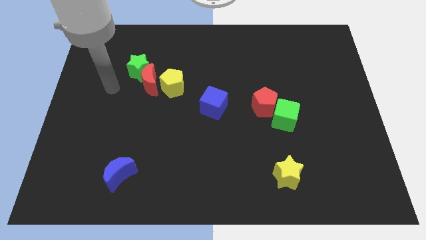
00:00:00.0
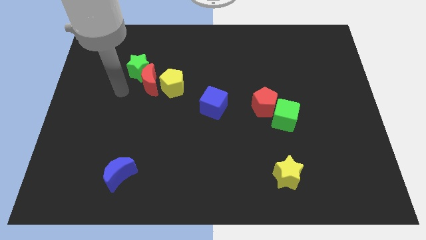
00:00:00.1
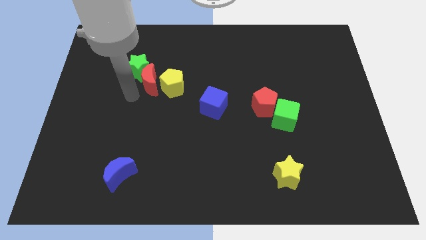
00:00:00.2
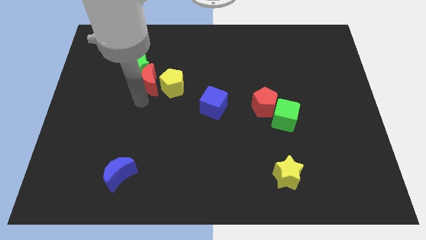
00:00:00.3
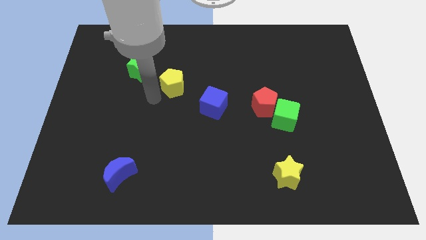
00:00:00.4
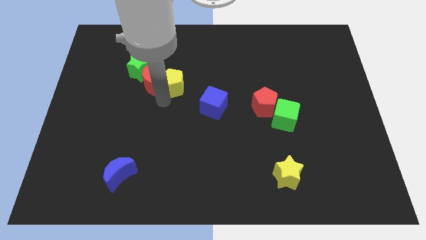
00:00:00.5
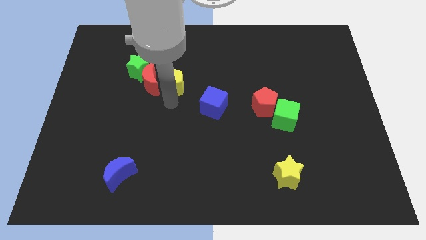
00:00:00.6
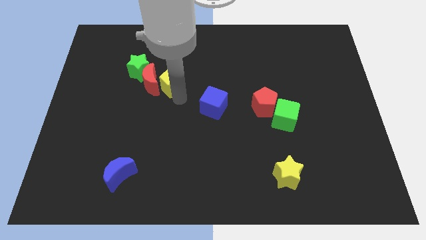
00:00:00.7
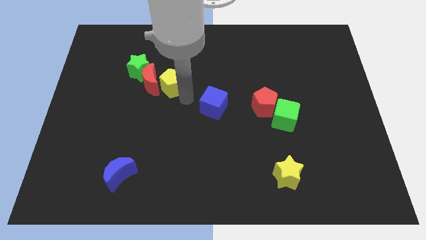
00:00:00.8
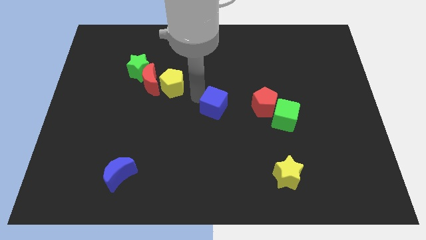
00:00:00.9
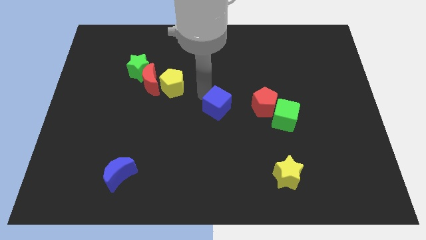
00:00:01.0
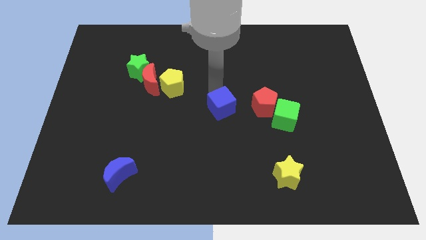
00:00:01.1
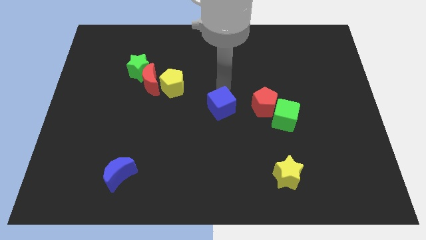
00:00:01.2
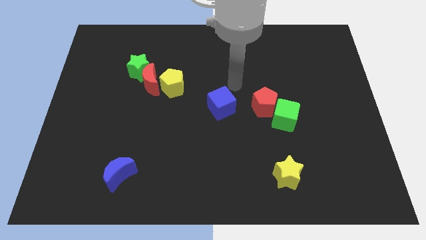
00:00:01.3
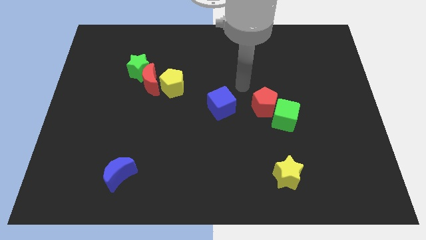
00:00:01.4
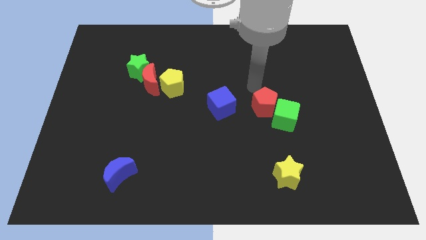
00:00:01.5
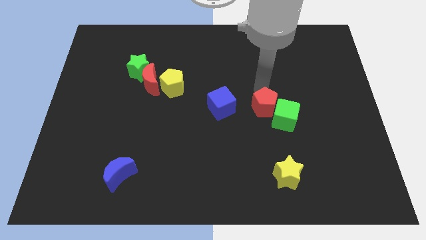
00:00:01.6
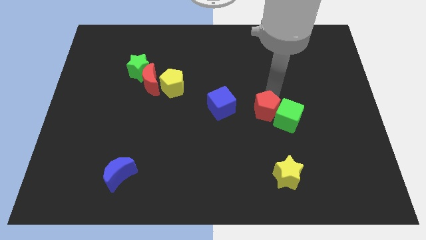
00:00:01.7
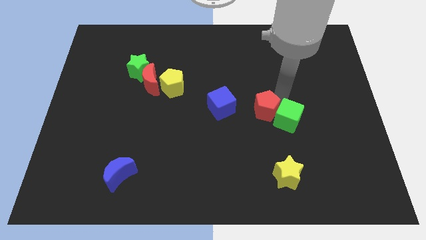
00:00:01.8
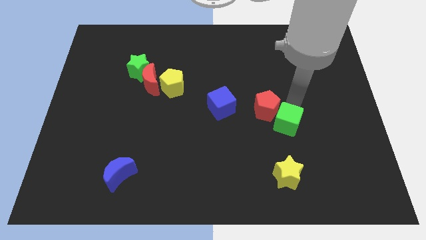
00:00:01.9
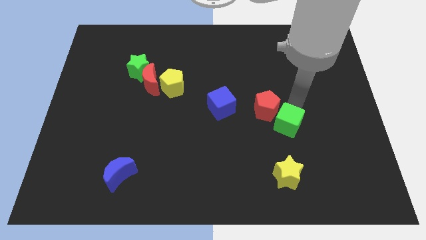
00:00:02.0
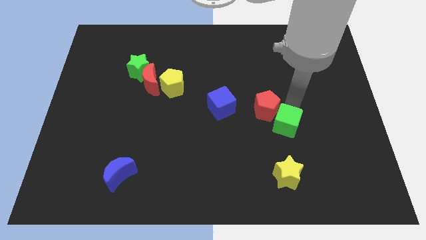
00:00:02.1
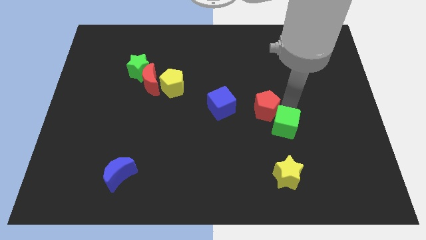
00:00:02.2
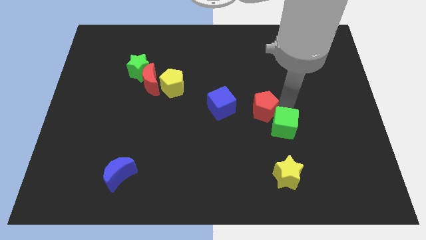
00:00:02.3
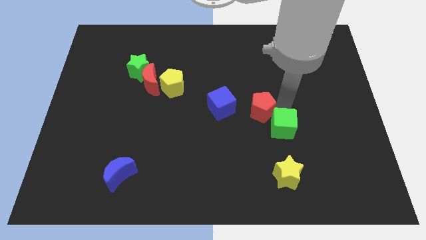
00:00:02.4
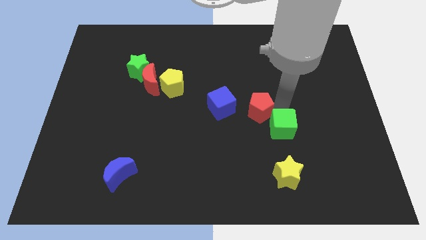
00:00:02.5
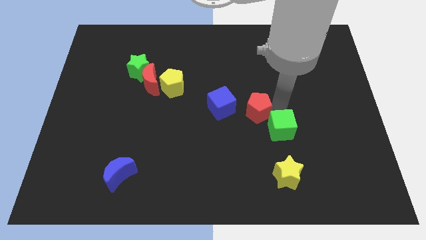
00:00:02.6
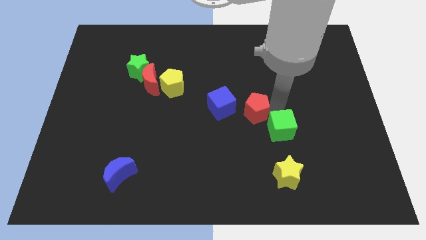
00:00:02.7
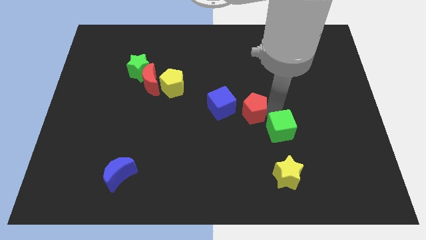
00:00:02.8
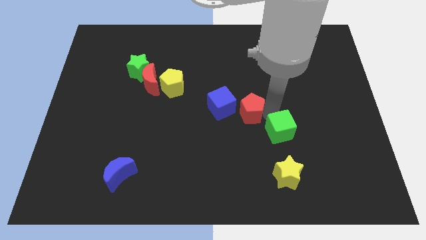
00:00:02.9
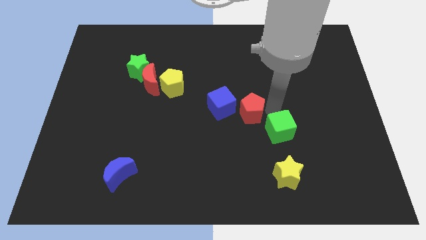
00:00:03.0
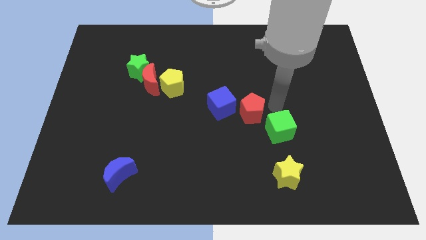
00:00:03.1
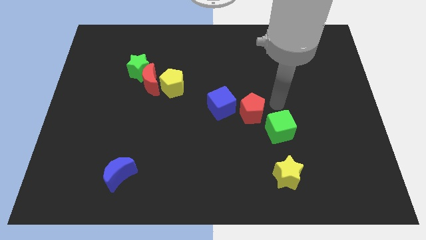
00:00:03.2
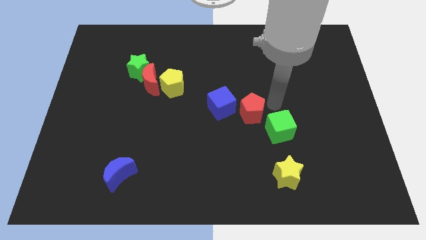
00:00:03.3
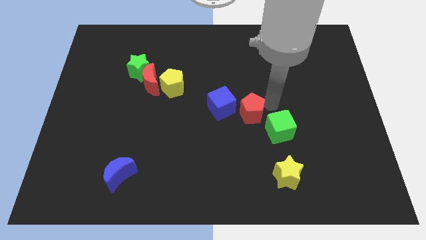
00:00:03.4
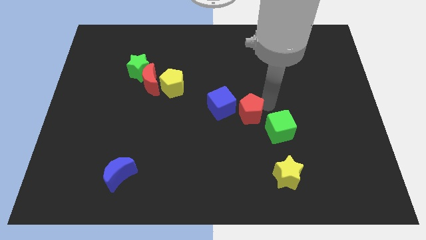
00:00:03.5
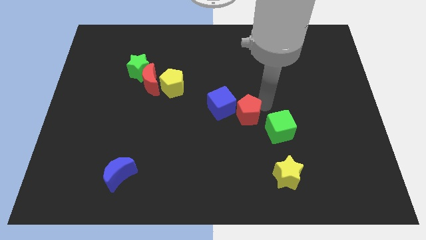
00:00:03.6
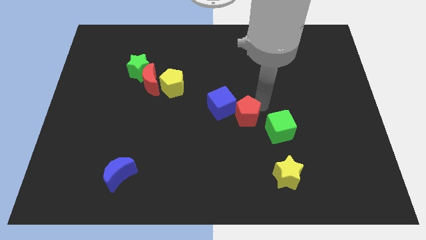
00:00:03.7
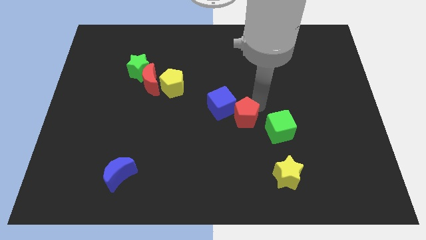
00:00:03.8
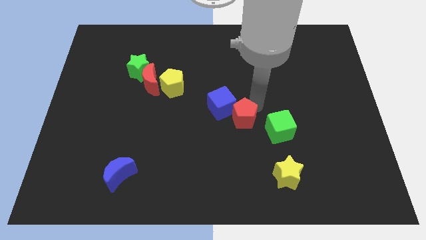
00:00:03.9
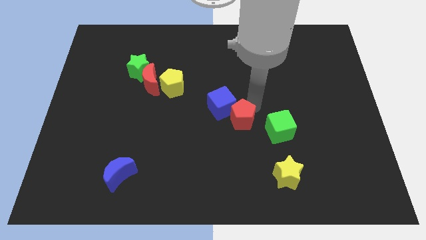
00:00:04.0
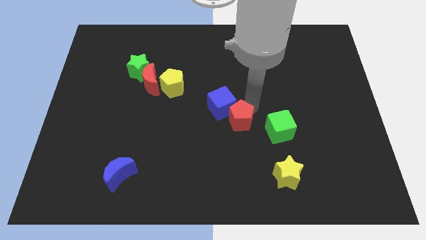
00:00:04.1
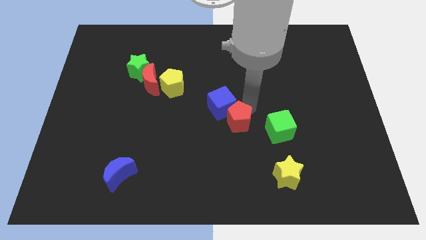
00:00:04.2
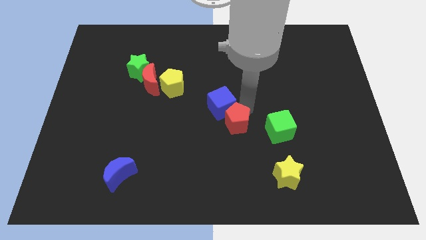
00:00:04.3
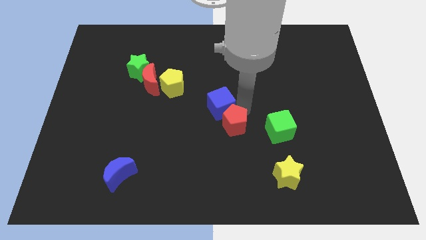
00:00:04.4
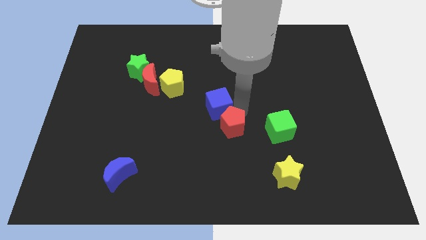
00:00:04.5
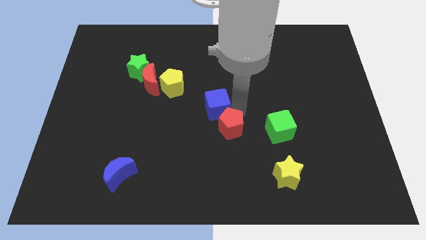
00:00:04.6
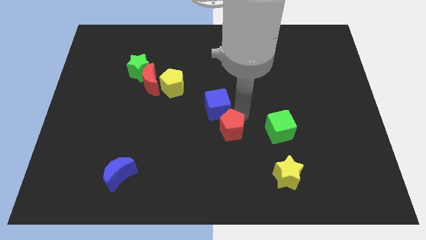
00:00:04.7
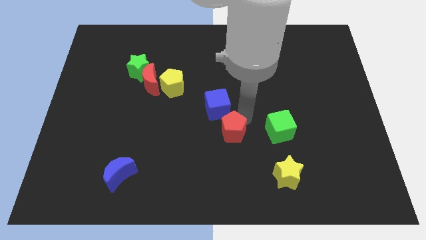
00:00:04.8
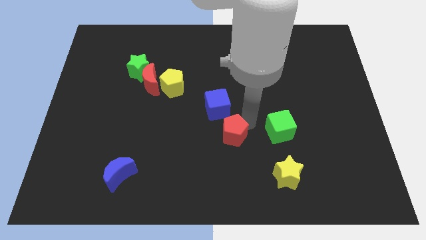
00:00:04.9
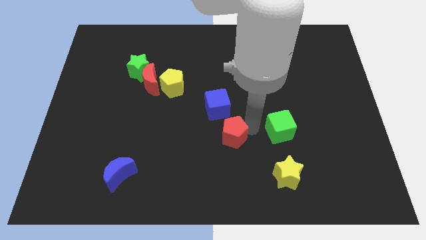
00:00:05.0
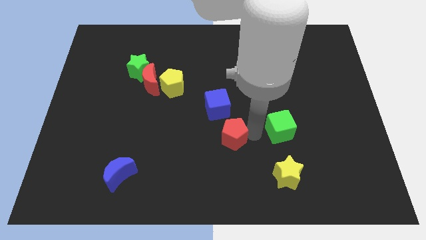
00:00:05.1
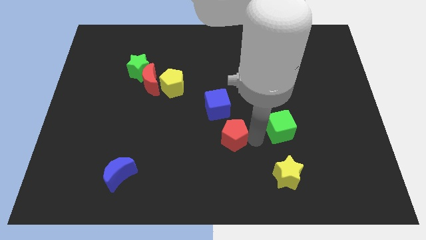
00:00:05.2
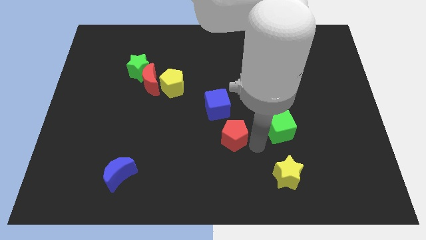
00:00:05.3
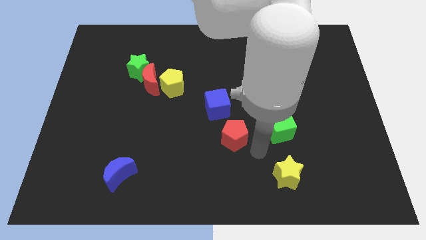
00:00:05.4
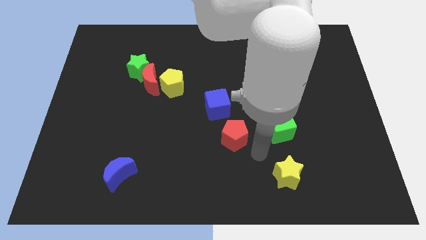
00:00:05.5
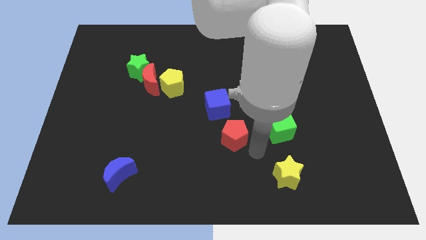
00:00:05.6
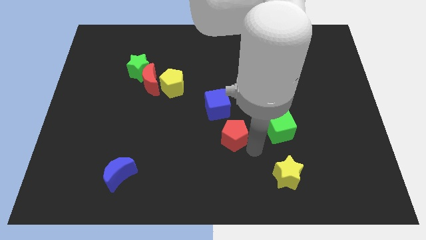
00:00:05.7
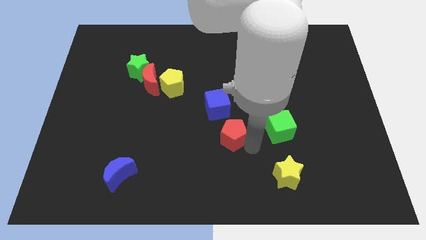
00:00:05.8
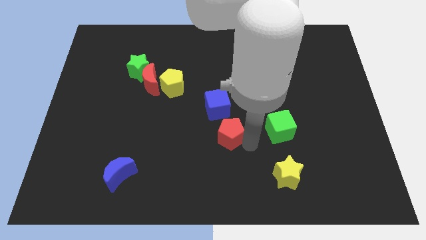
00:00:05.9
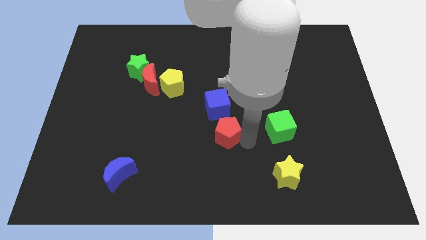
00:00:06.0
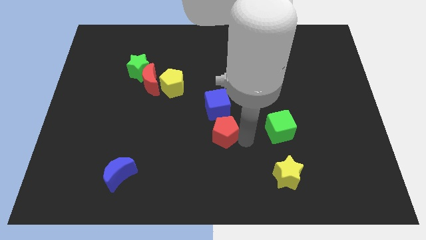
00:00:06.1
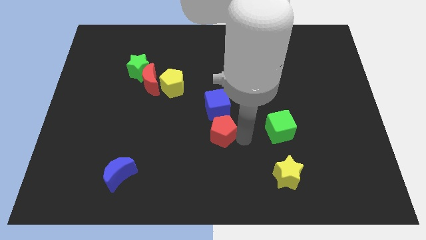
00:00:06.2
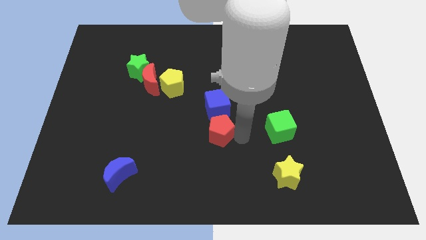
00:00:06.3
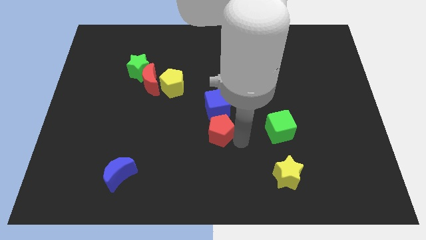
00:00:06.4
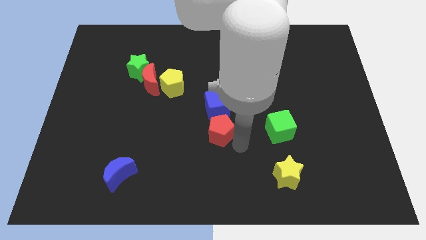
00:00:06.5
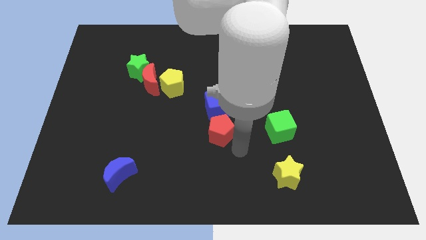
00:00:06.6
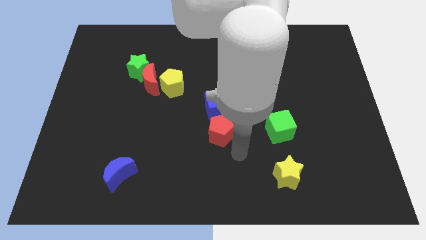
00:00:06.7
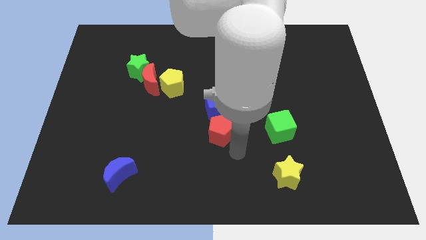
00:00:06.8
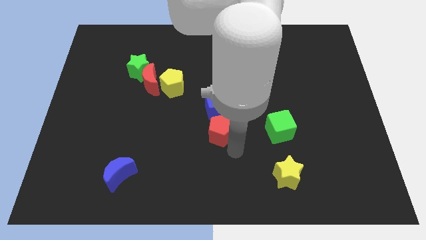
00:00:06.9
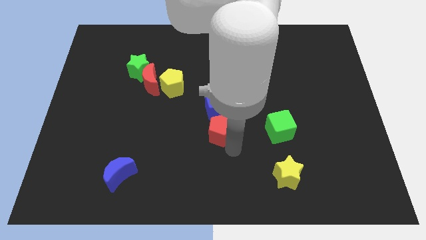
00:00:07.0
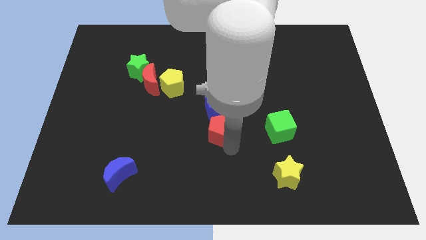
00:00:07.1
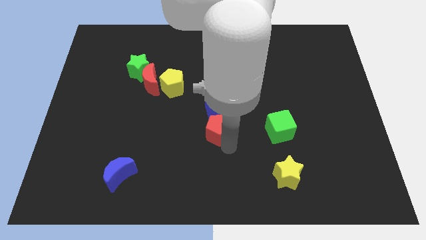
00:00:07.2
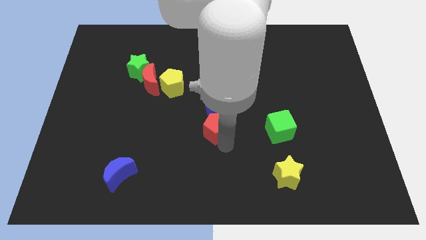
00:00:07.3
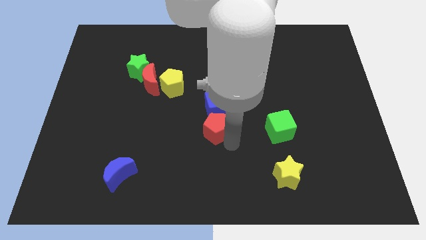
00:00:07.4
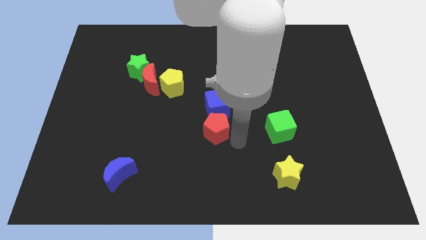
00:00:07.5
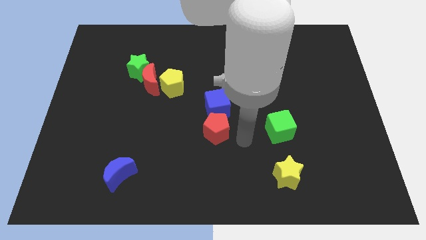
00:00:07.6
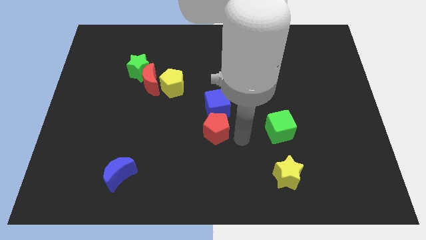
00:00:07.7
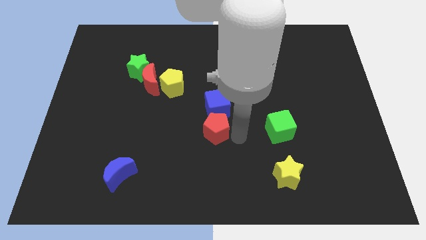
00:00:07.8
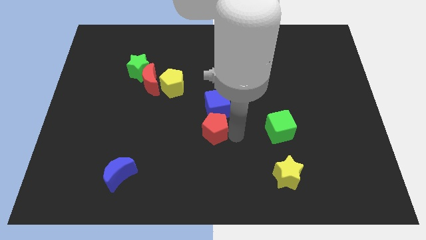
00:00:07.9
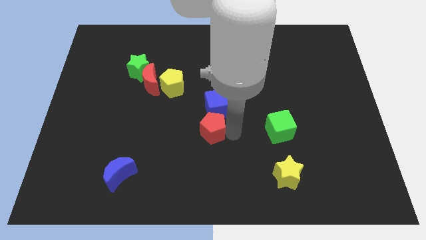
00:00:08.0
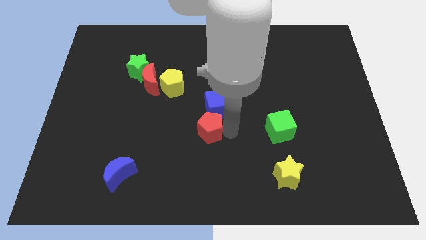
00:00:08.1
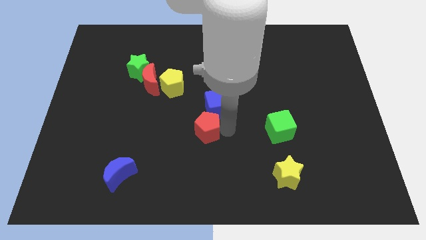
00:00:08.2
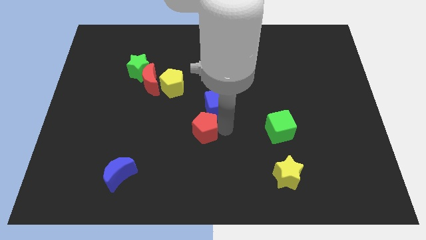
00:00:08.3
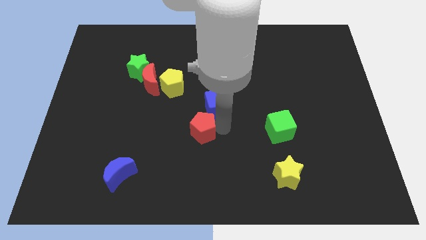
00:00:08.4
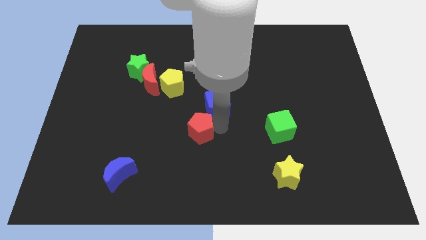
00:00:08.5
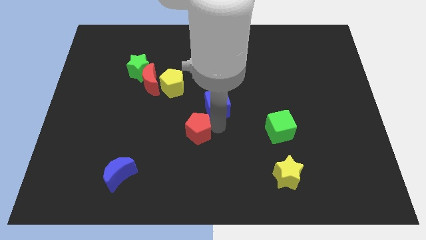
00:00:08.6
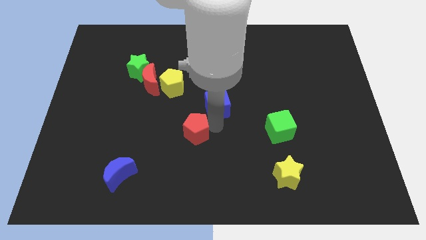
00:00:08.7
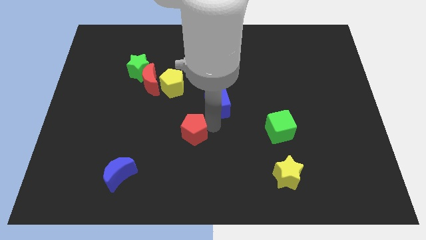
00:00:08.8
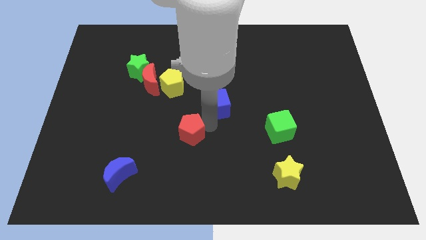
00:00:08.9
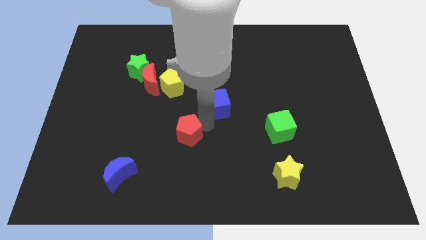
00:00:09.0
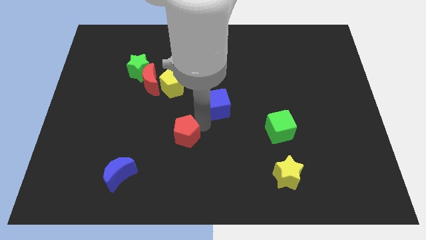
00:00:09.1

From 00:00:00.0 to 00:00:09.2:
push the red pentagon below the yellow pentagon
